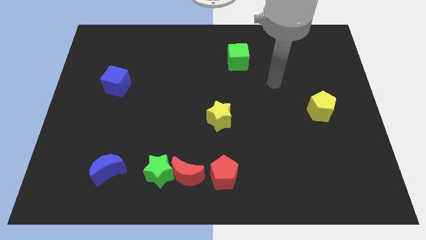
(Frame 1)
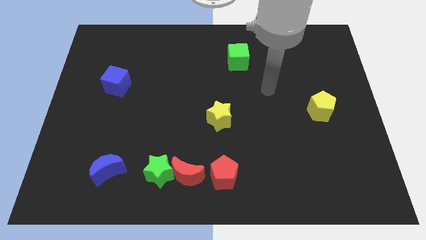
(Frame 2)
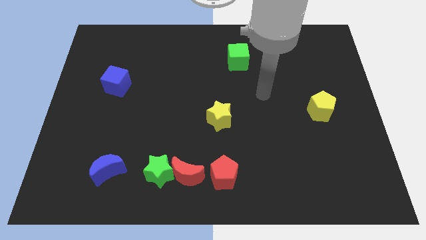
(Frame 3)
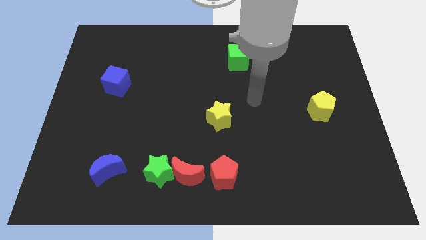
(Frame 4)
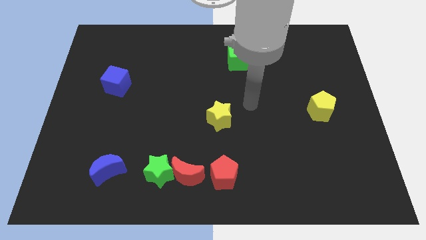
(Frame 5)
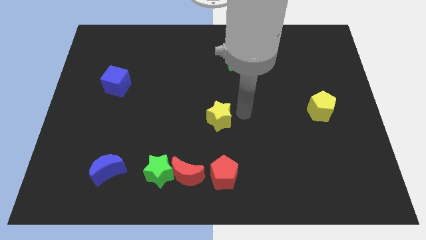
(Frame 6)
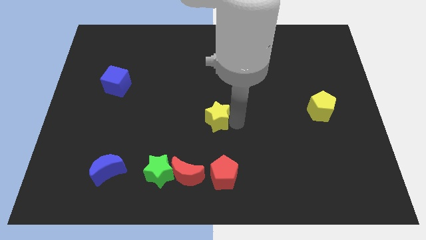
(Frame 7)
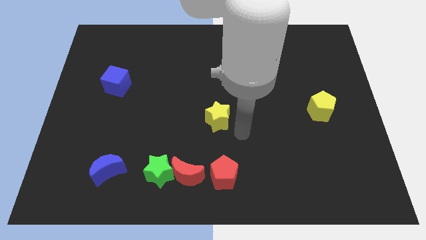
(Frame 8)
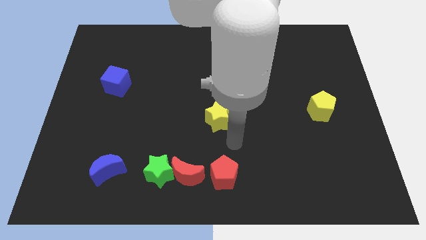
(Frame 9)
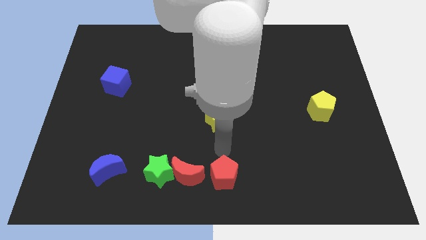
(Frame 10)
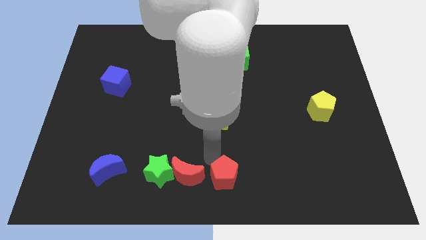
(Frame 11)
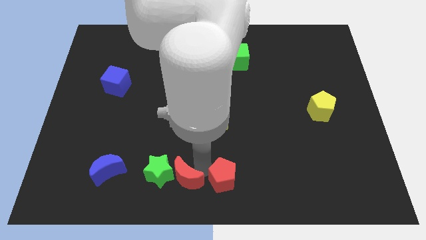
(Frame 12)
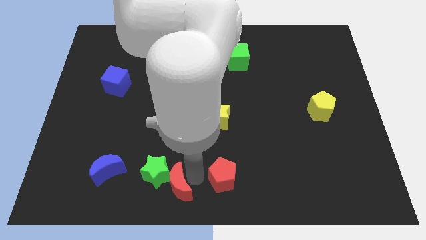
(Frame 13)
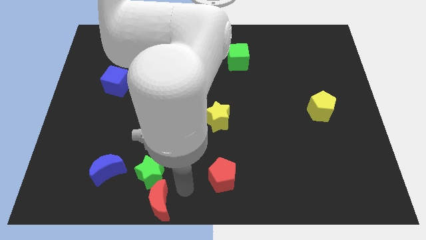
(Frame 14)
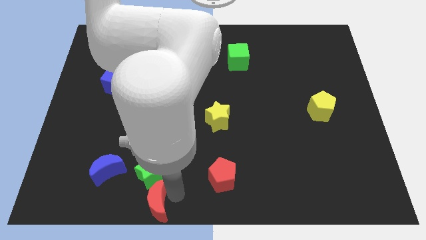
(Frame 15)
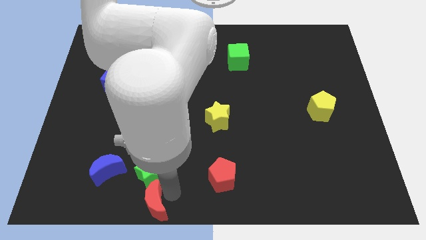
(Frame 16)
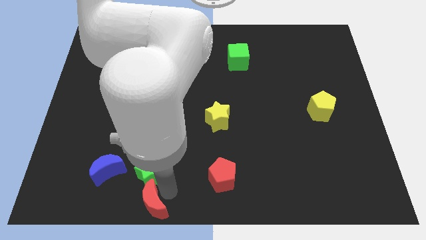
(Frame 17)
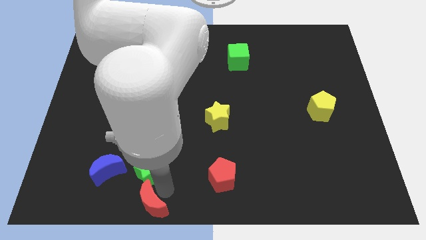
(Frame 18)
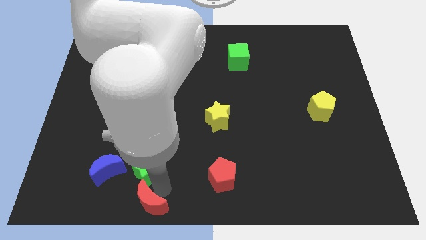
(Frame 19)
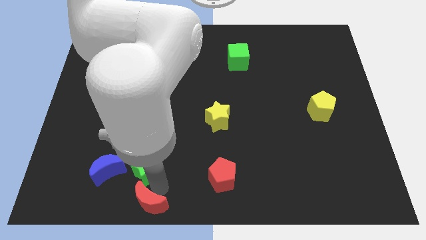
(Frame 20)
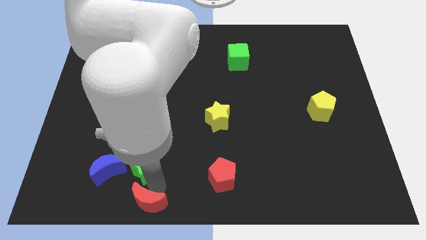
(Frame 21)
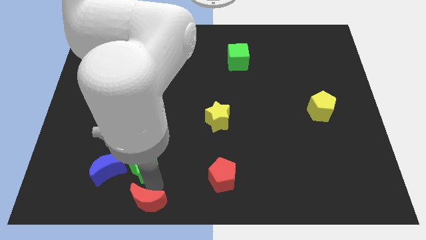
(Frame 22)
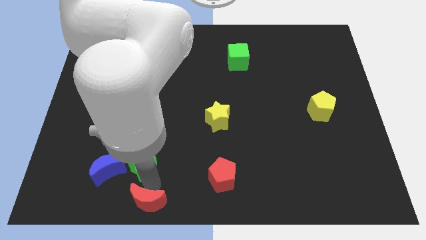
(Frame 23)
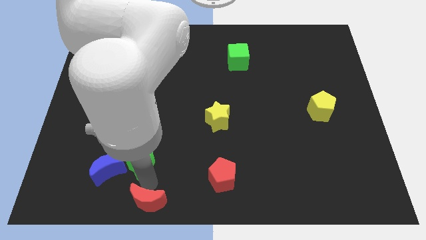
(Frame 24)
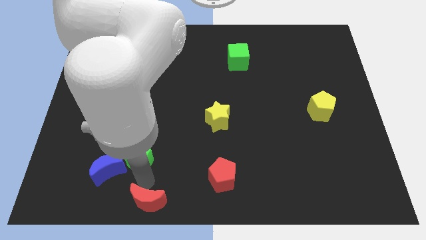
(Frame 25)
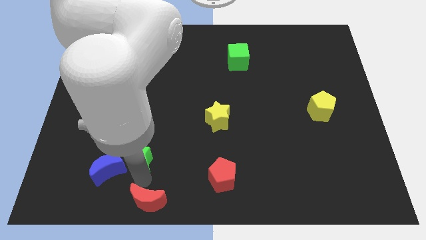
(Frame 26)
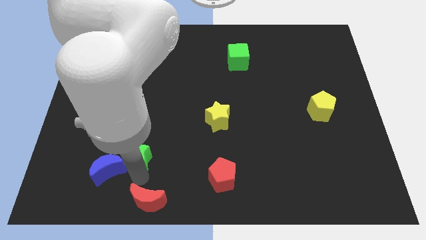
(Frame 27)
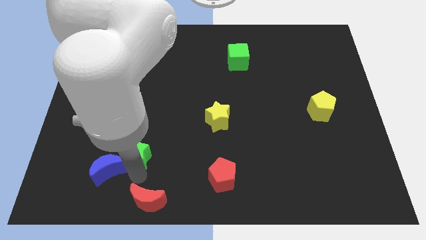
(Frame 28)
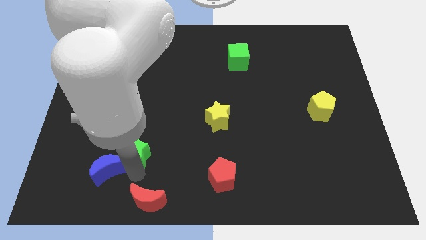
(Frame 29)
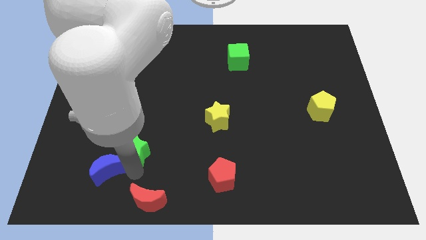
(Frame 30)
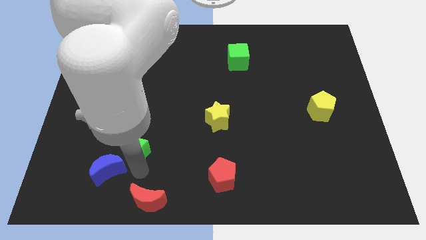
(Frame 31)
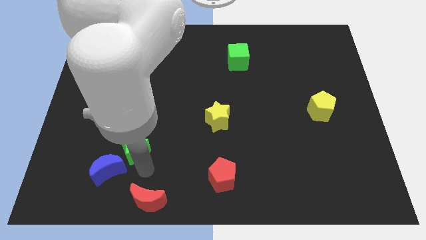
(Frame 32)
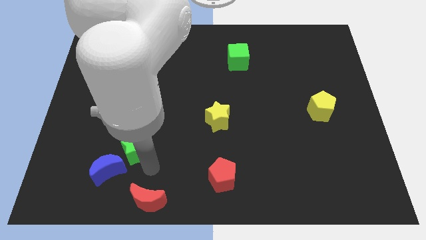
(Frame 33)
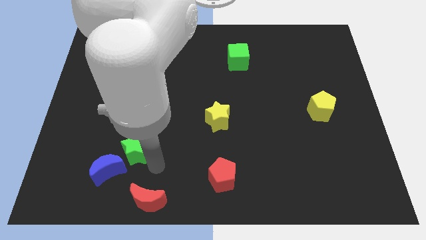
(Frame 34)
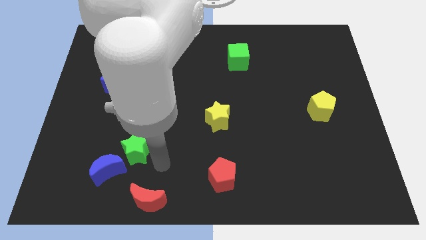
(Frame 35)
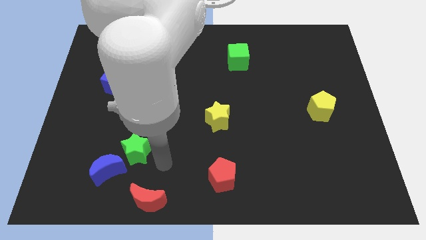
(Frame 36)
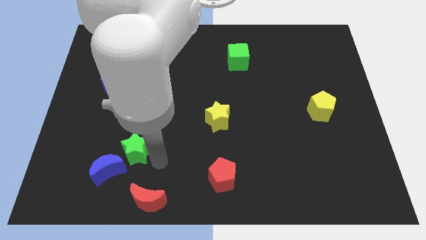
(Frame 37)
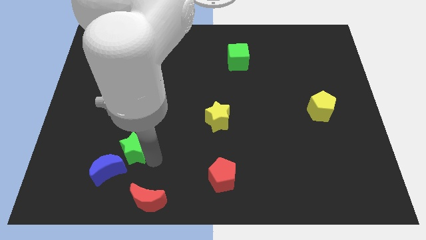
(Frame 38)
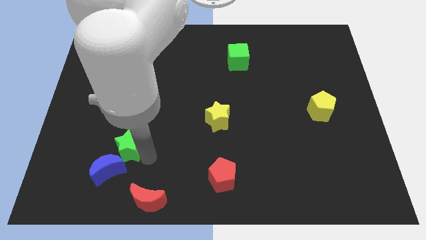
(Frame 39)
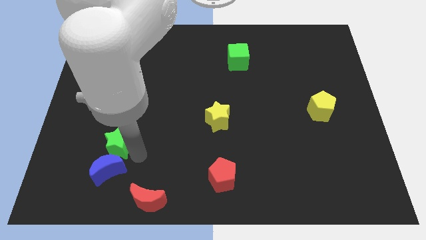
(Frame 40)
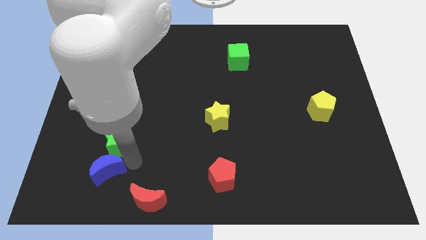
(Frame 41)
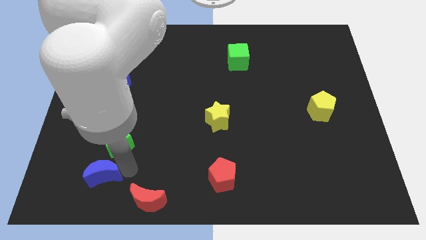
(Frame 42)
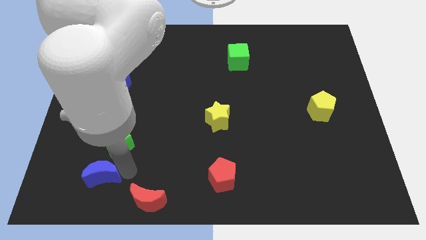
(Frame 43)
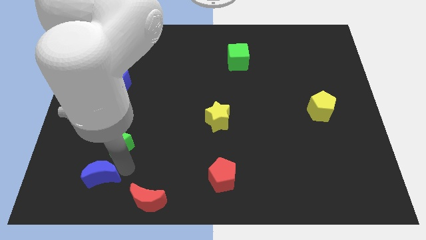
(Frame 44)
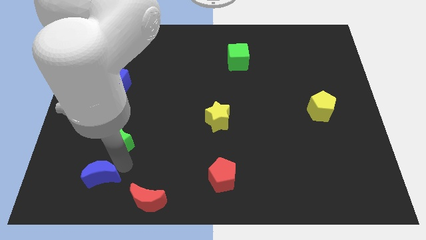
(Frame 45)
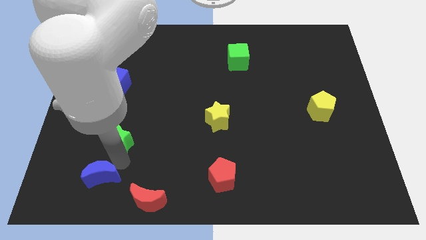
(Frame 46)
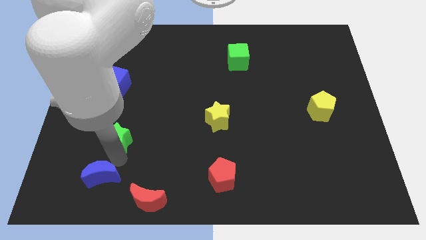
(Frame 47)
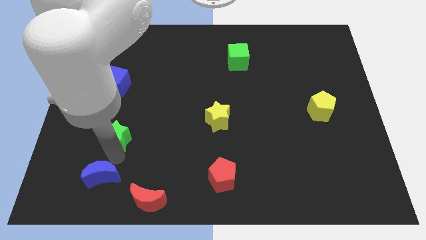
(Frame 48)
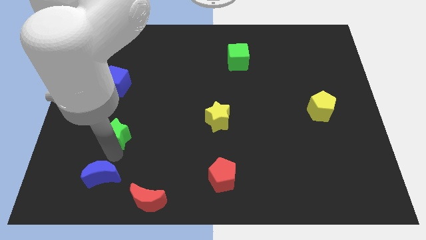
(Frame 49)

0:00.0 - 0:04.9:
put the green star below the blue cube

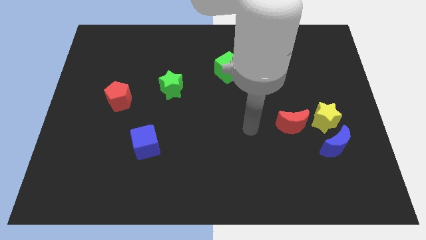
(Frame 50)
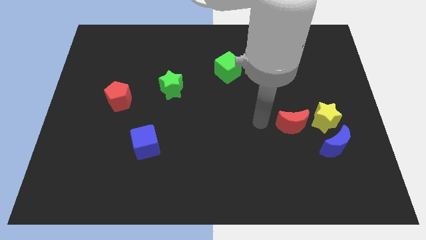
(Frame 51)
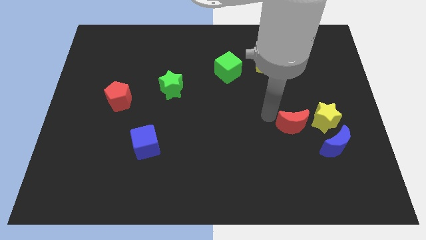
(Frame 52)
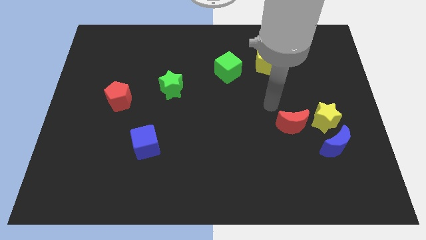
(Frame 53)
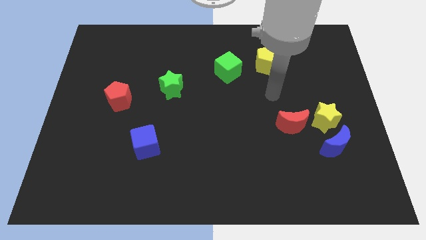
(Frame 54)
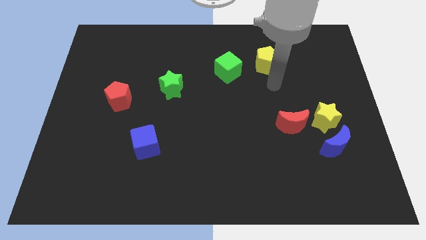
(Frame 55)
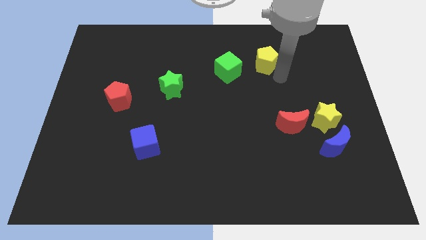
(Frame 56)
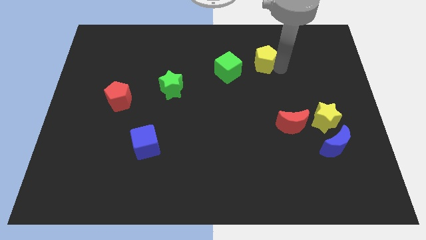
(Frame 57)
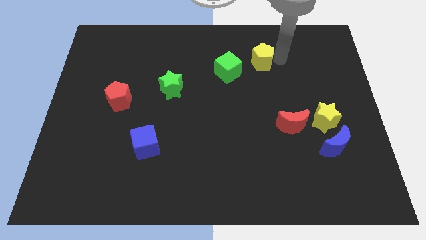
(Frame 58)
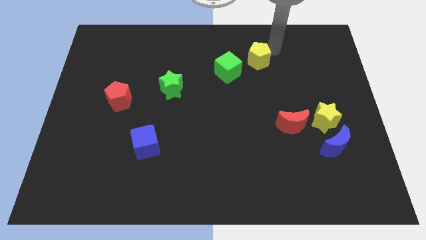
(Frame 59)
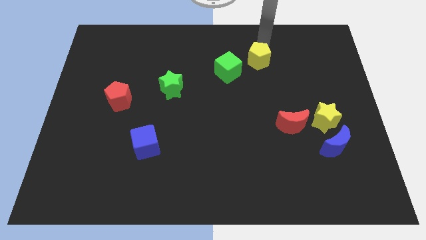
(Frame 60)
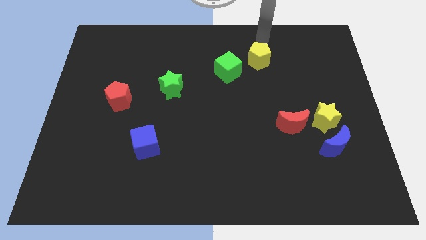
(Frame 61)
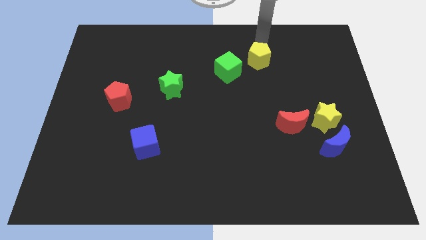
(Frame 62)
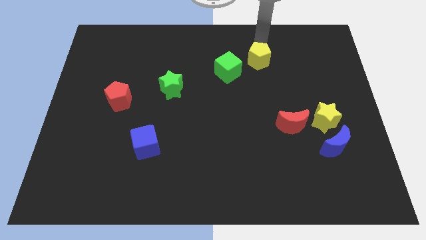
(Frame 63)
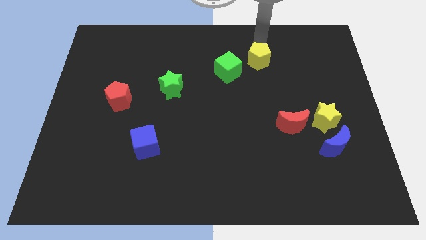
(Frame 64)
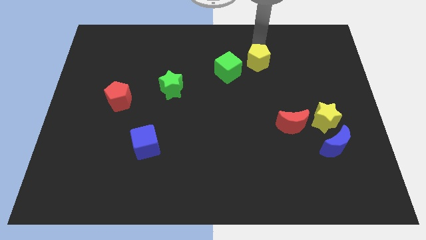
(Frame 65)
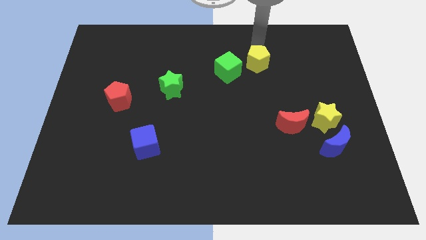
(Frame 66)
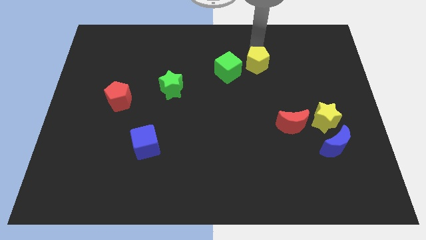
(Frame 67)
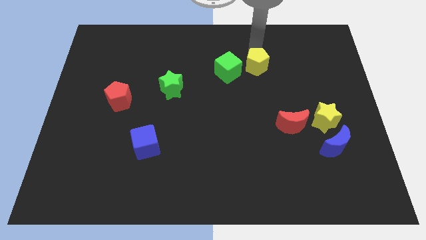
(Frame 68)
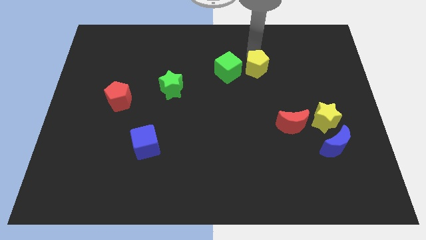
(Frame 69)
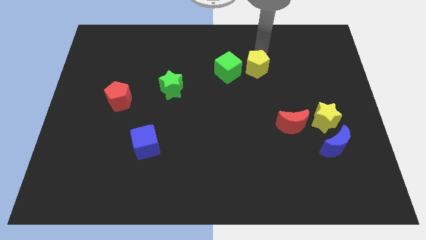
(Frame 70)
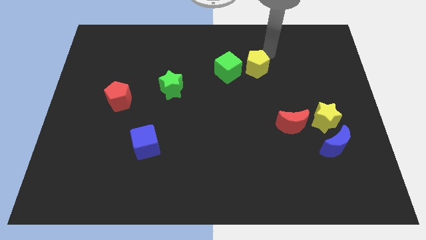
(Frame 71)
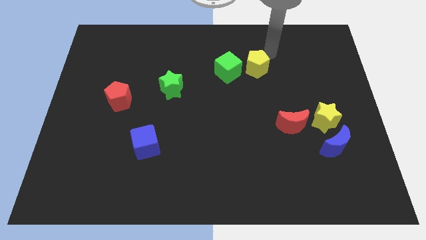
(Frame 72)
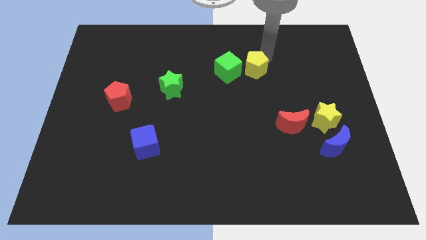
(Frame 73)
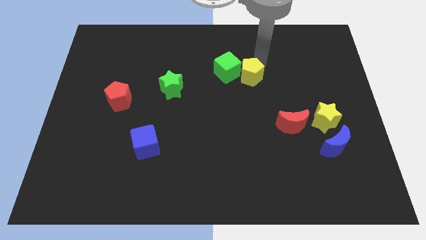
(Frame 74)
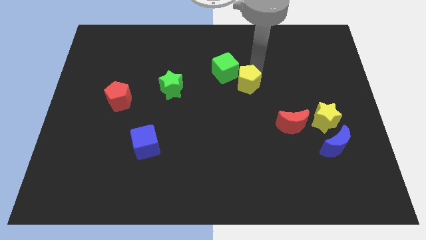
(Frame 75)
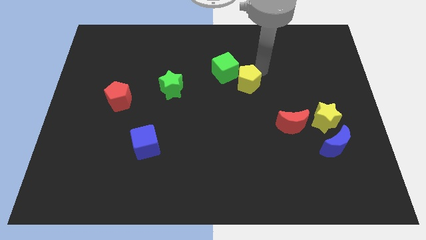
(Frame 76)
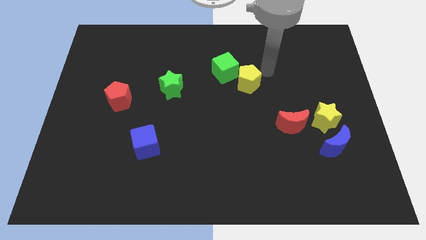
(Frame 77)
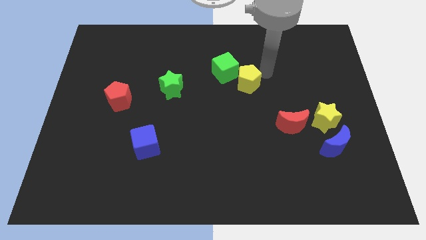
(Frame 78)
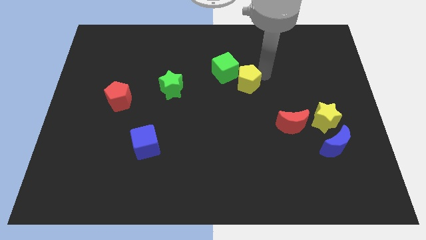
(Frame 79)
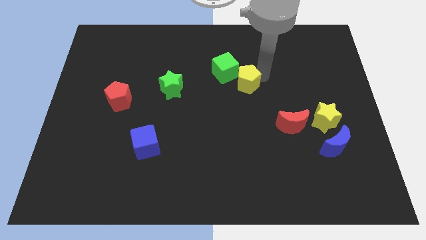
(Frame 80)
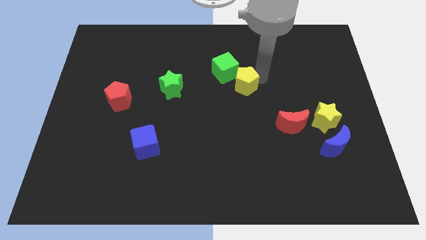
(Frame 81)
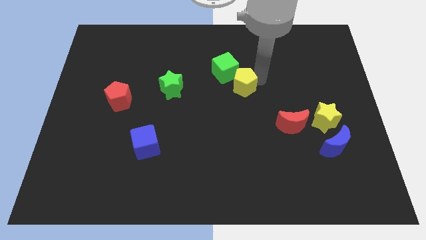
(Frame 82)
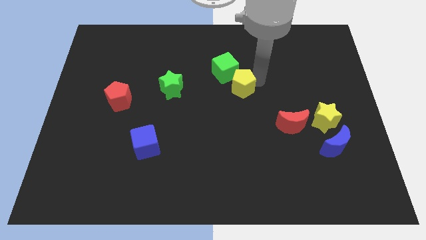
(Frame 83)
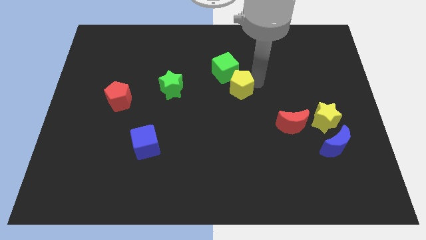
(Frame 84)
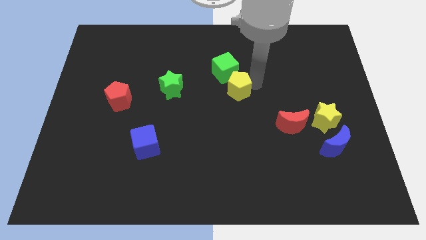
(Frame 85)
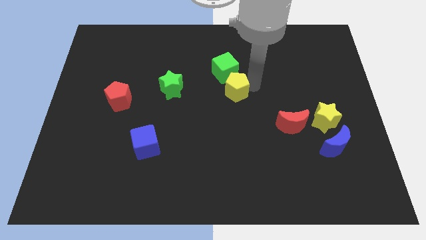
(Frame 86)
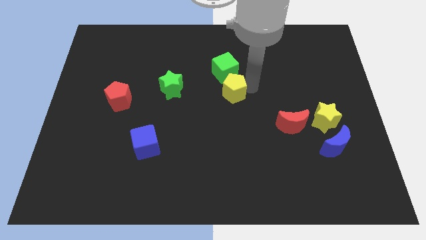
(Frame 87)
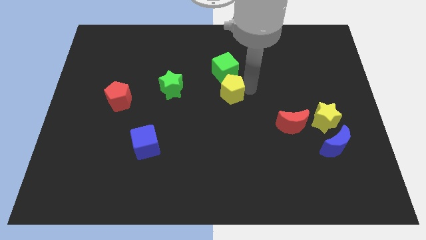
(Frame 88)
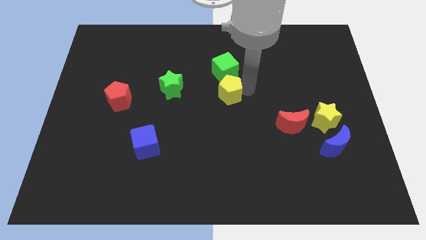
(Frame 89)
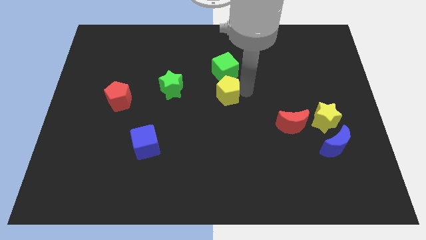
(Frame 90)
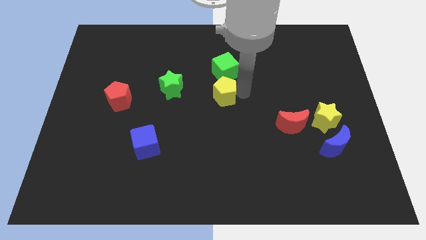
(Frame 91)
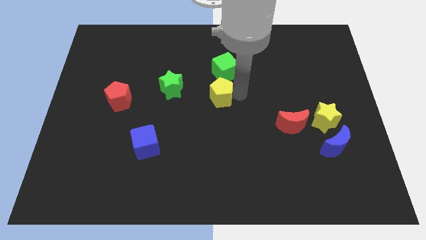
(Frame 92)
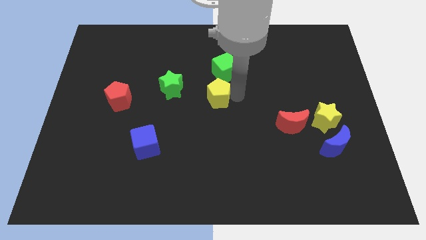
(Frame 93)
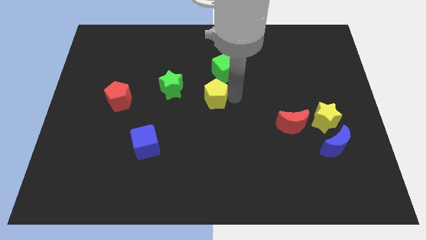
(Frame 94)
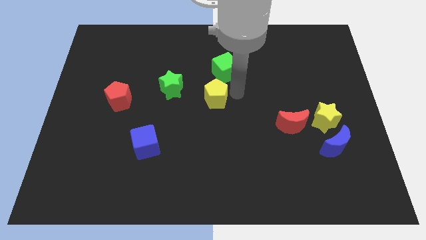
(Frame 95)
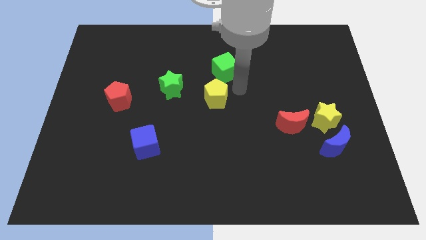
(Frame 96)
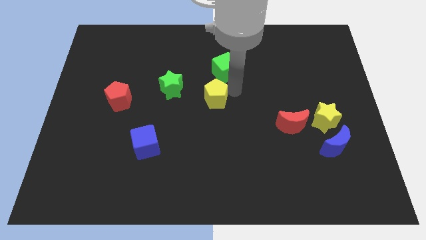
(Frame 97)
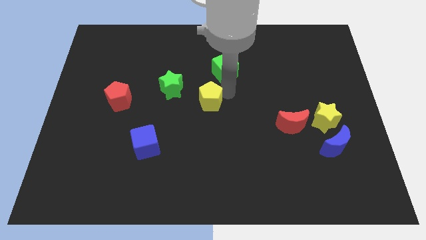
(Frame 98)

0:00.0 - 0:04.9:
move the yellow pentagon to the bottom right of the green star
